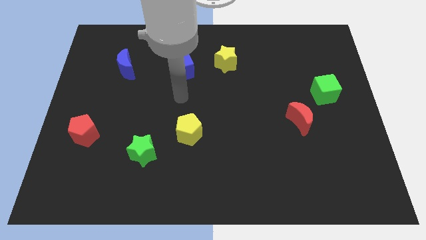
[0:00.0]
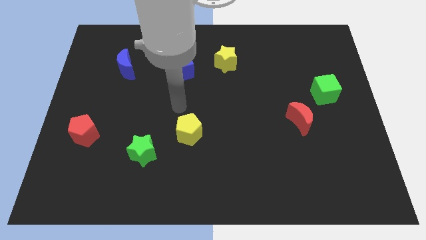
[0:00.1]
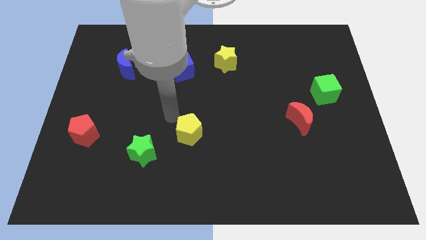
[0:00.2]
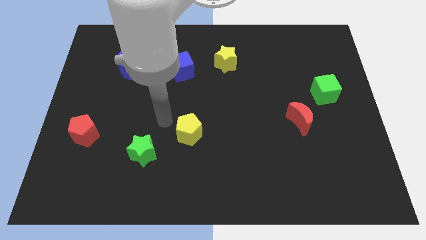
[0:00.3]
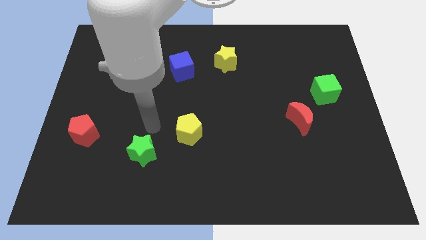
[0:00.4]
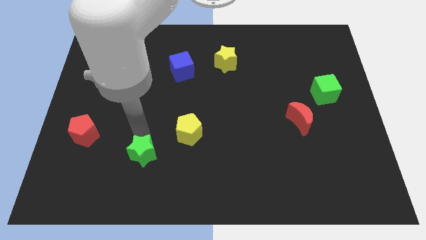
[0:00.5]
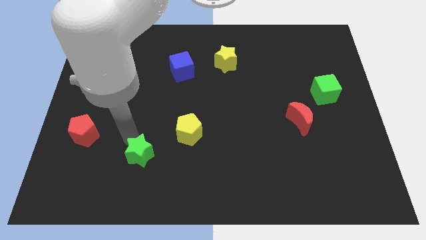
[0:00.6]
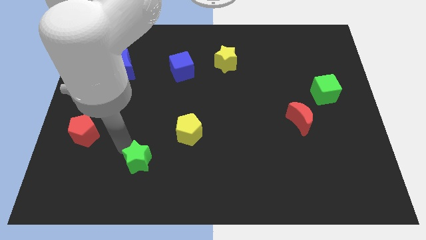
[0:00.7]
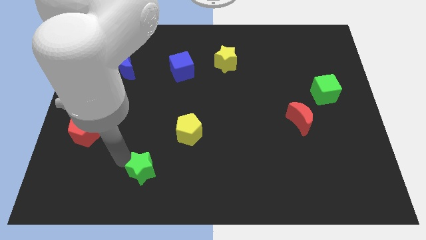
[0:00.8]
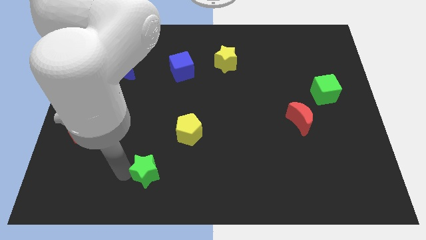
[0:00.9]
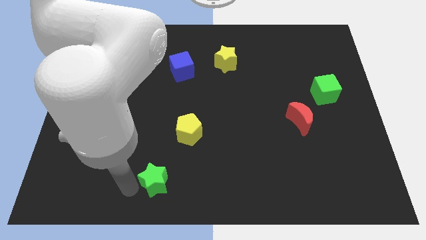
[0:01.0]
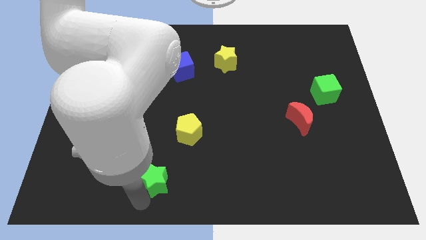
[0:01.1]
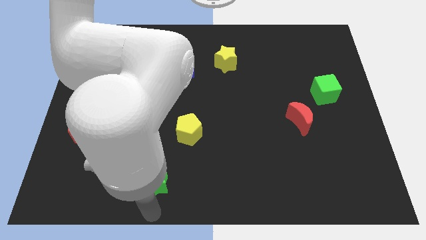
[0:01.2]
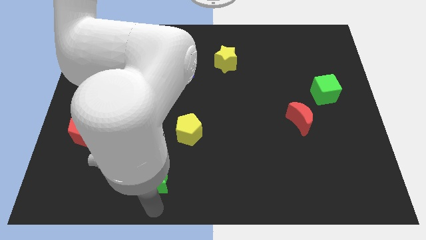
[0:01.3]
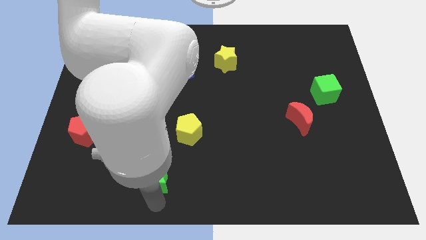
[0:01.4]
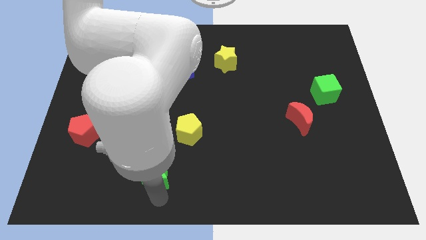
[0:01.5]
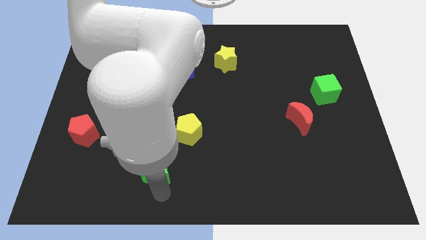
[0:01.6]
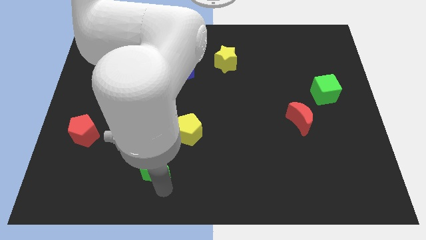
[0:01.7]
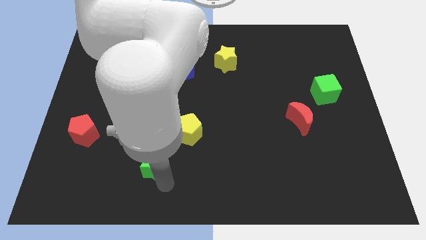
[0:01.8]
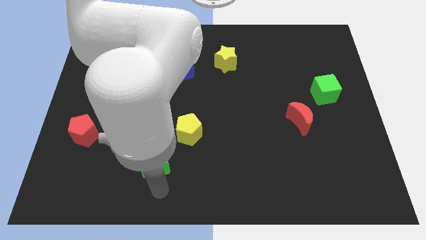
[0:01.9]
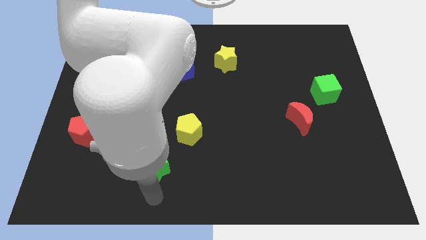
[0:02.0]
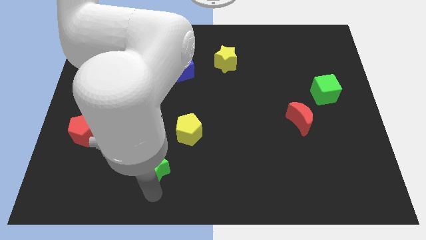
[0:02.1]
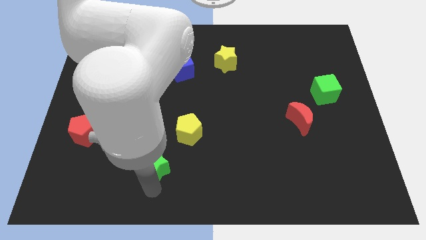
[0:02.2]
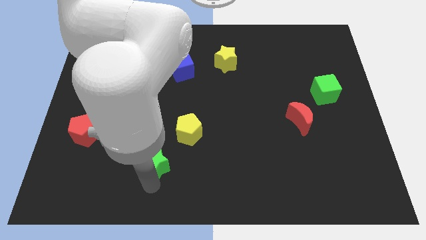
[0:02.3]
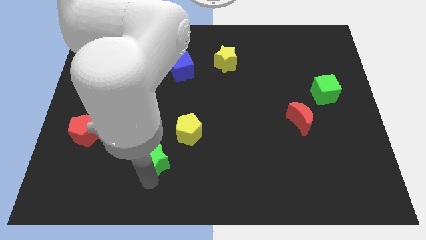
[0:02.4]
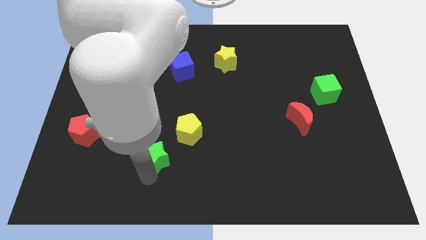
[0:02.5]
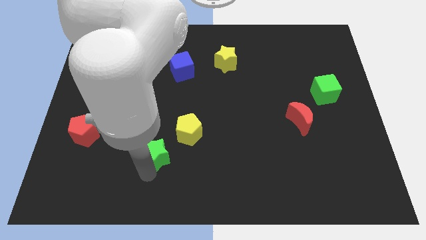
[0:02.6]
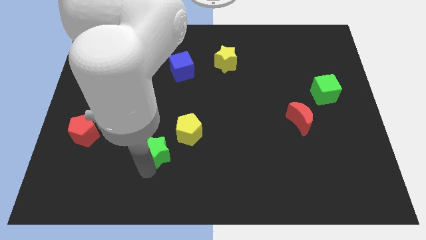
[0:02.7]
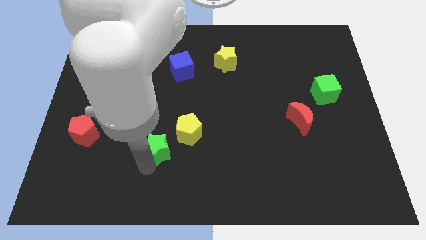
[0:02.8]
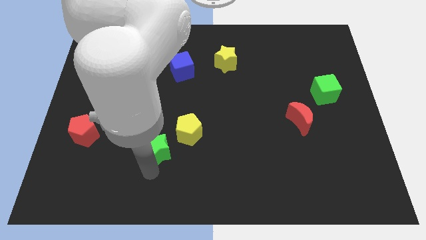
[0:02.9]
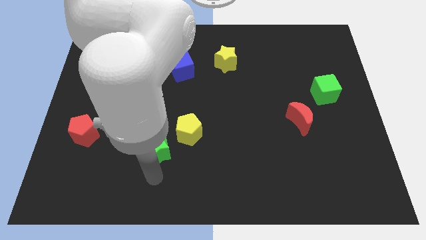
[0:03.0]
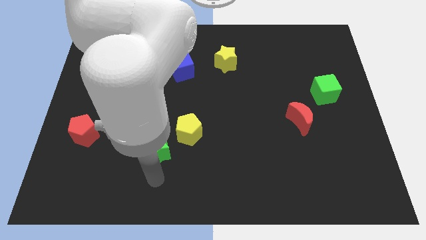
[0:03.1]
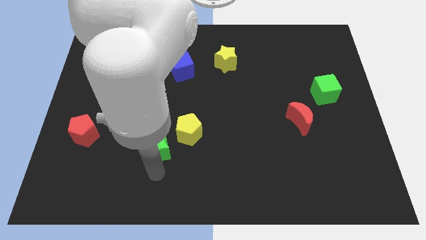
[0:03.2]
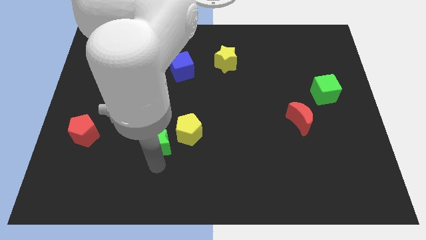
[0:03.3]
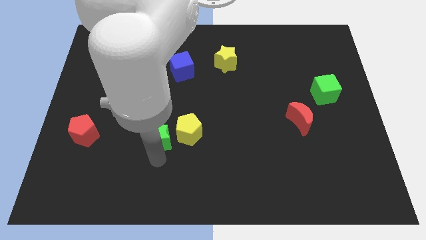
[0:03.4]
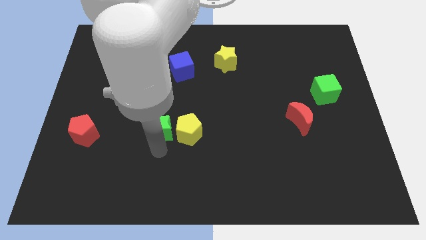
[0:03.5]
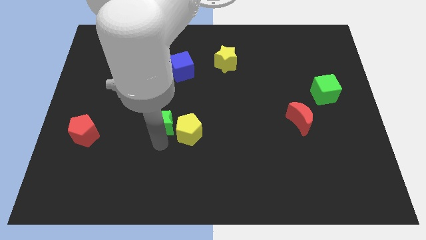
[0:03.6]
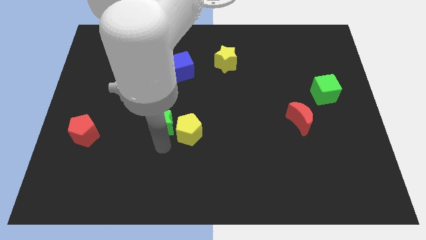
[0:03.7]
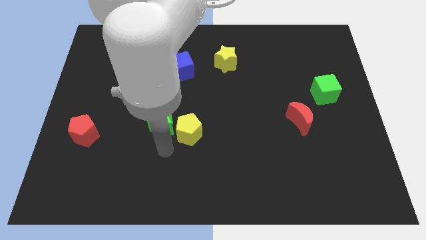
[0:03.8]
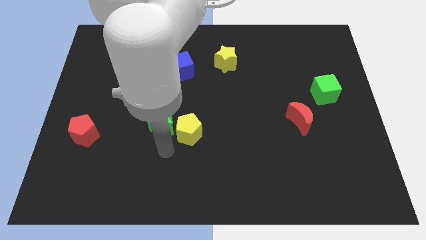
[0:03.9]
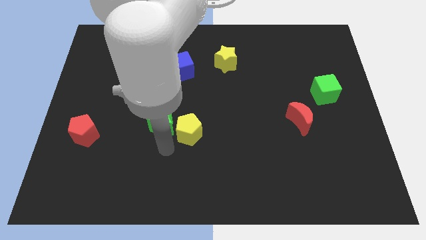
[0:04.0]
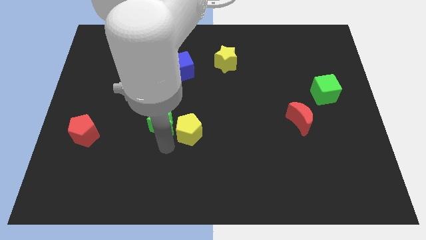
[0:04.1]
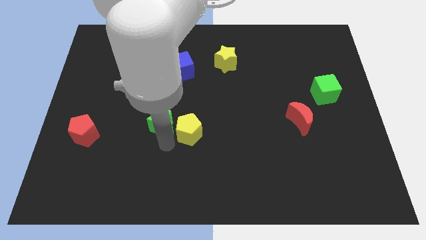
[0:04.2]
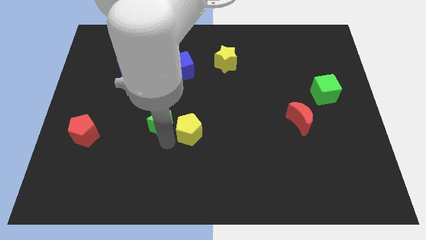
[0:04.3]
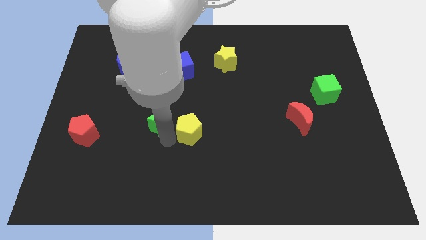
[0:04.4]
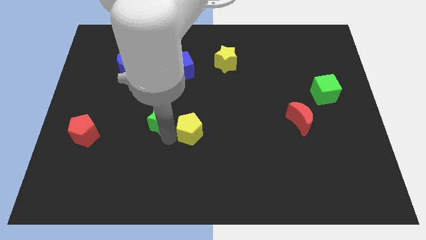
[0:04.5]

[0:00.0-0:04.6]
push the green star somewhat up

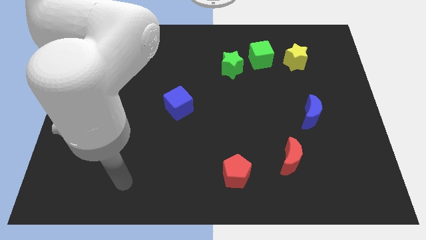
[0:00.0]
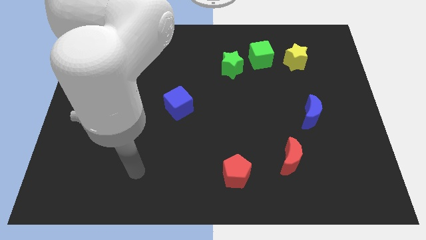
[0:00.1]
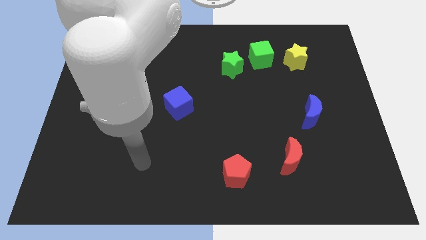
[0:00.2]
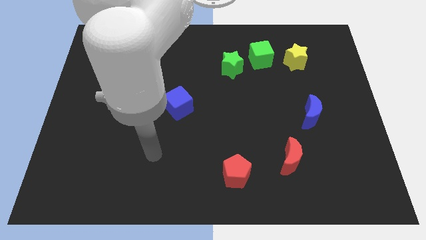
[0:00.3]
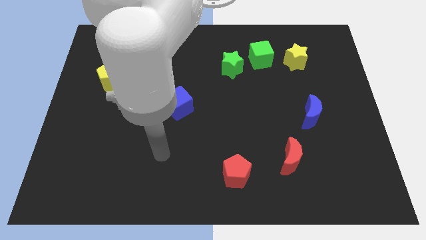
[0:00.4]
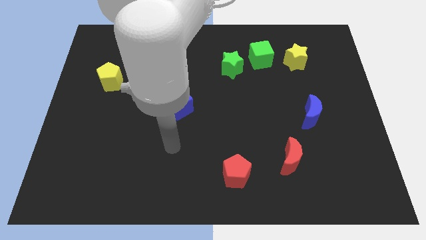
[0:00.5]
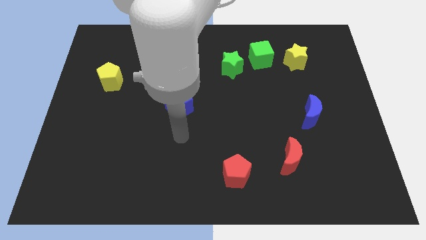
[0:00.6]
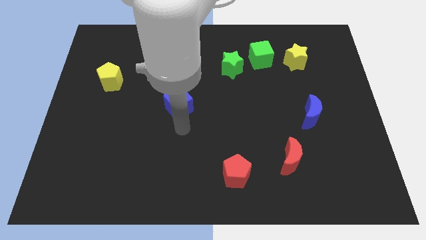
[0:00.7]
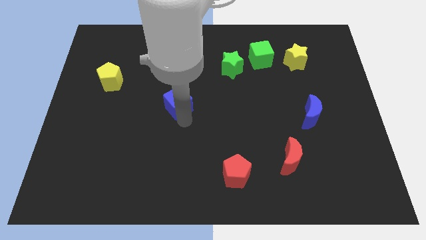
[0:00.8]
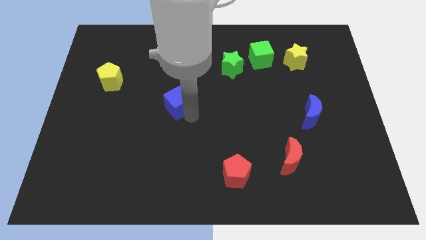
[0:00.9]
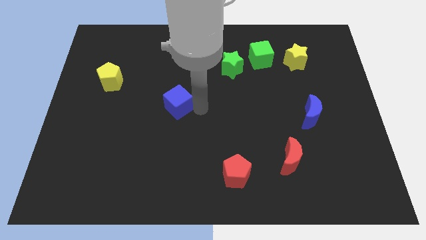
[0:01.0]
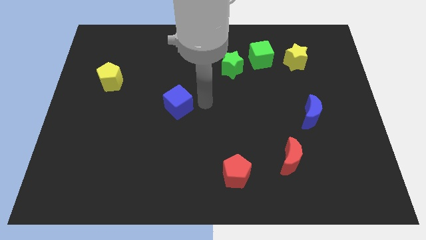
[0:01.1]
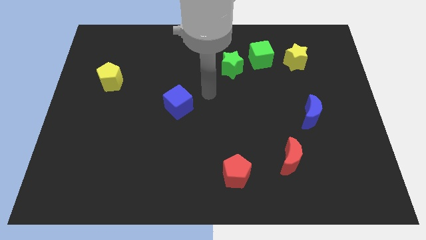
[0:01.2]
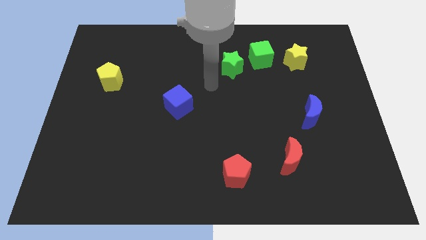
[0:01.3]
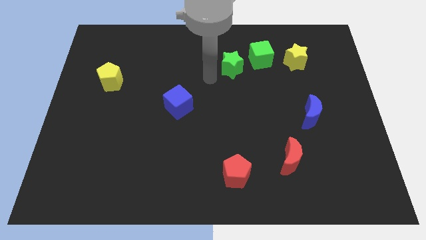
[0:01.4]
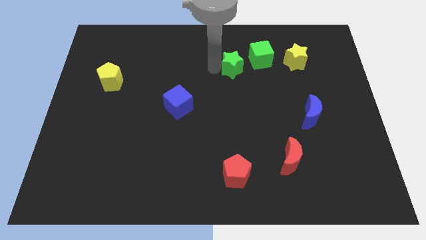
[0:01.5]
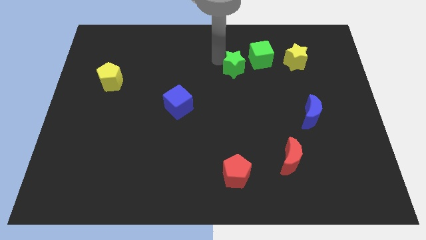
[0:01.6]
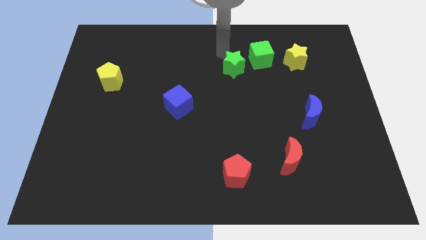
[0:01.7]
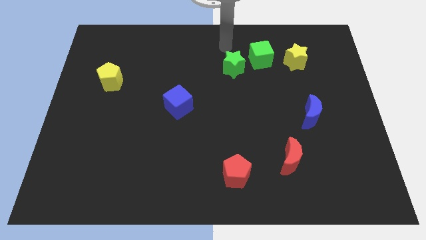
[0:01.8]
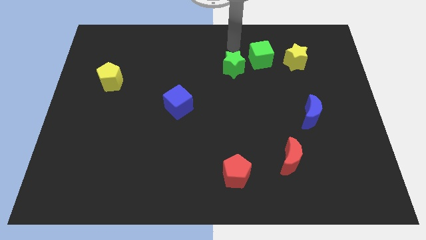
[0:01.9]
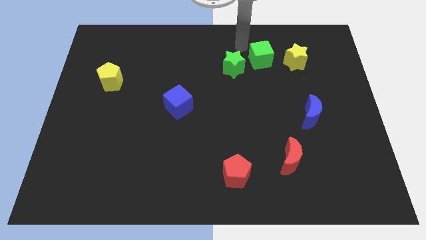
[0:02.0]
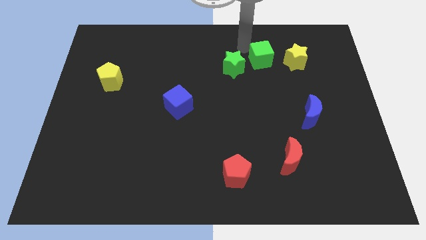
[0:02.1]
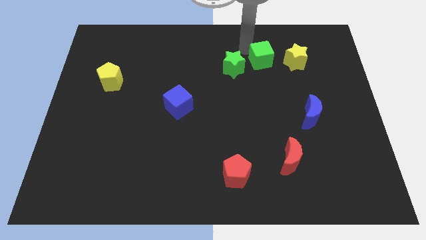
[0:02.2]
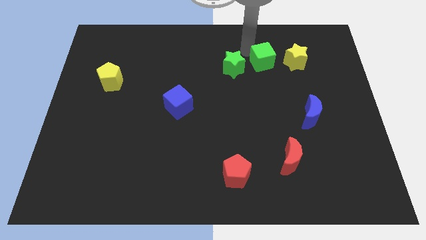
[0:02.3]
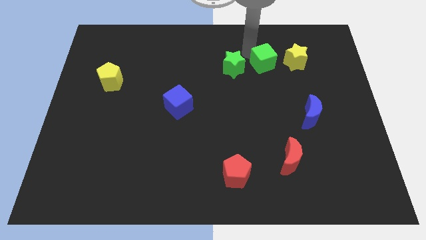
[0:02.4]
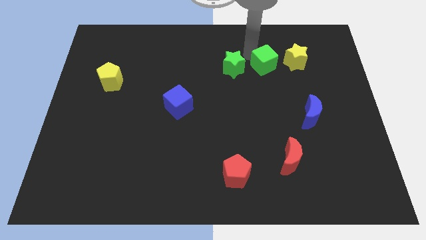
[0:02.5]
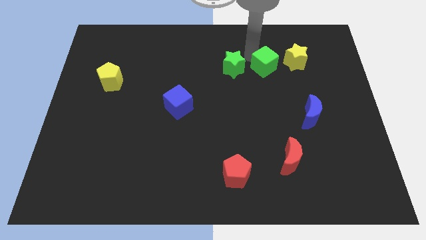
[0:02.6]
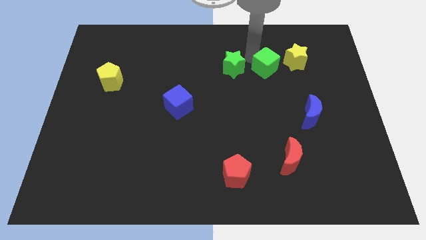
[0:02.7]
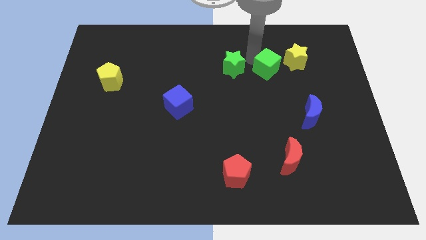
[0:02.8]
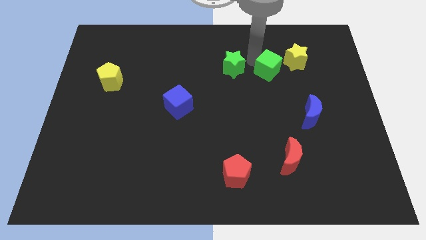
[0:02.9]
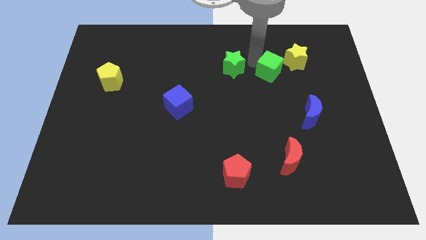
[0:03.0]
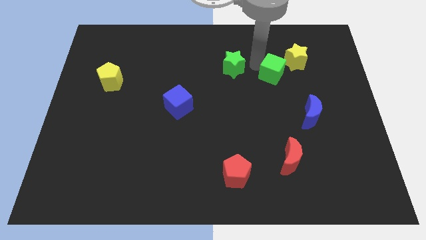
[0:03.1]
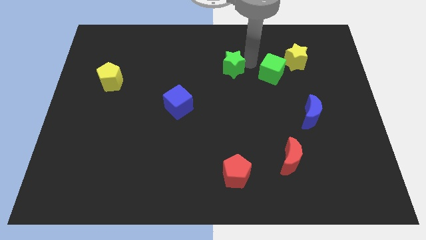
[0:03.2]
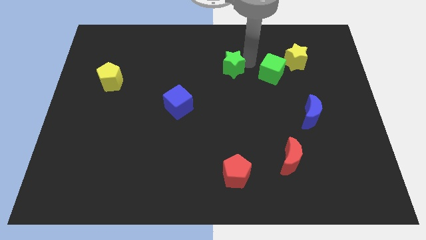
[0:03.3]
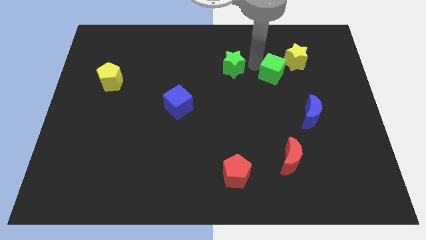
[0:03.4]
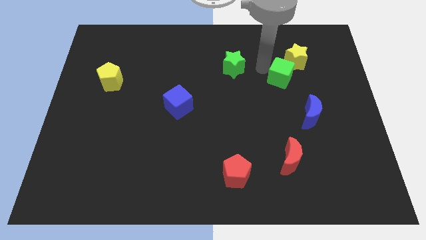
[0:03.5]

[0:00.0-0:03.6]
move the green cube somewhat down and right diagonally

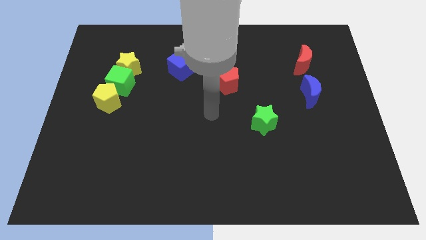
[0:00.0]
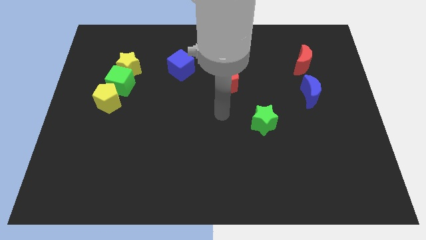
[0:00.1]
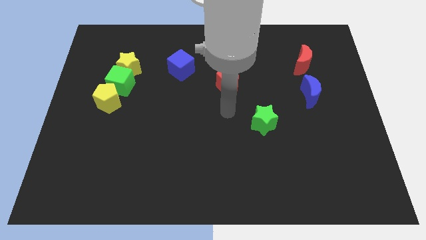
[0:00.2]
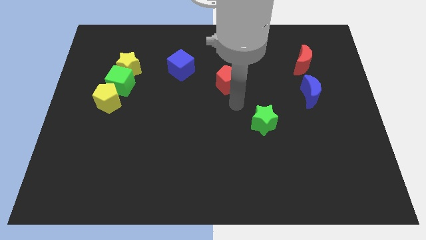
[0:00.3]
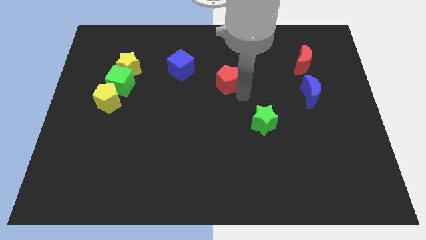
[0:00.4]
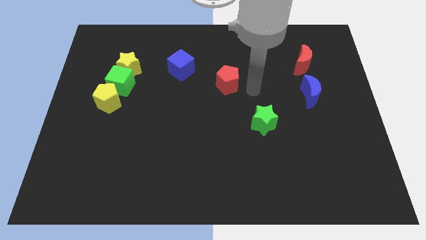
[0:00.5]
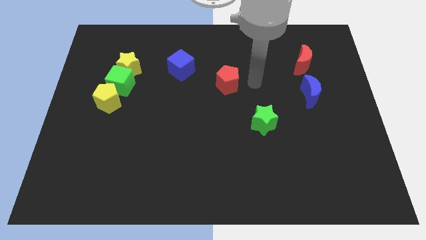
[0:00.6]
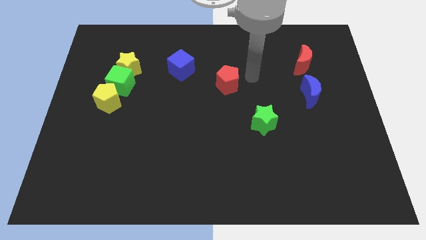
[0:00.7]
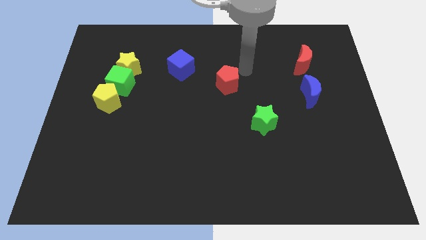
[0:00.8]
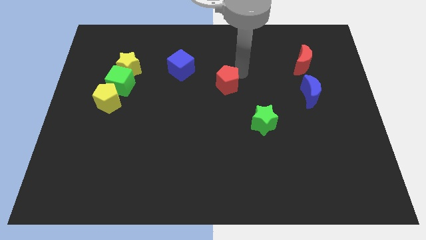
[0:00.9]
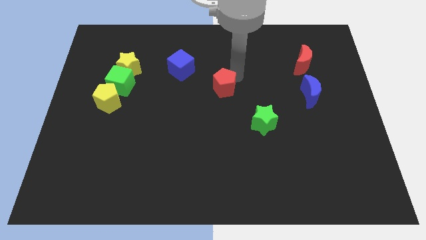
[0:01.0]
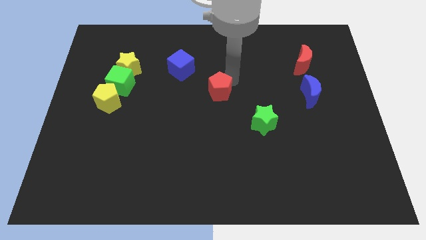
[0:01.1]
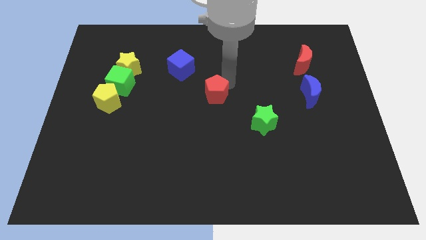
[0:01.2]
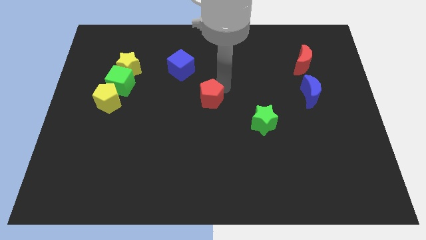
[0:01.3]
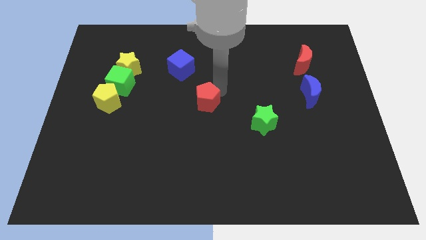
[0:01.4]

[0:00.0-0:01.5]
move the red pentagon slightly downwards and then left
